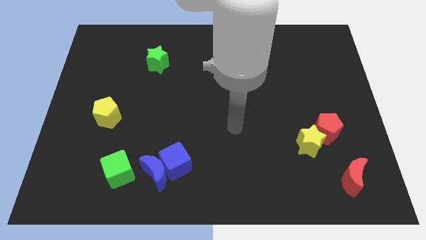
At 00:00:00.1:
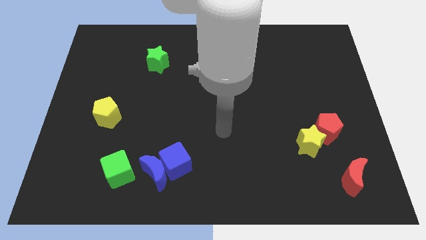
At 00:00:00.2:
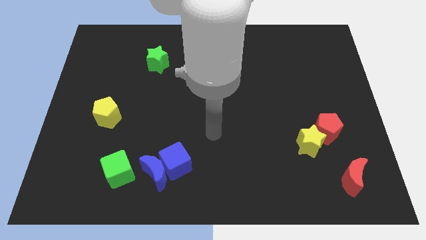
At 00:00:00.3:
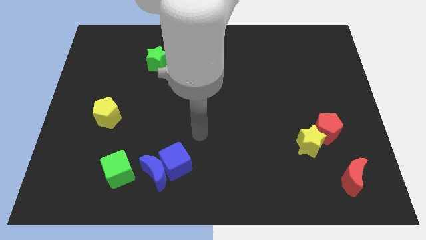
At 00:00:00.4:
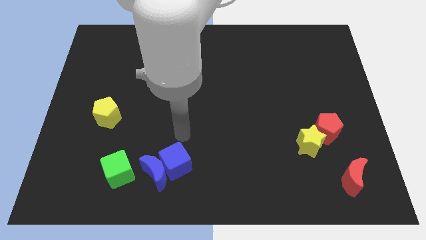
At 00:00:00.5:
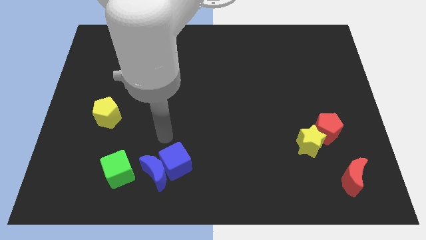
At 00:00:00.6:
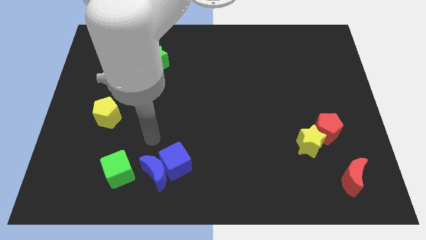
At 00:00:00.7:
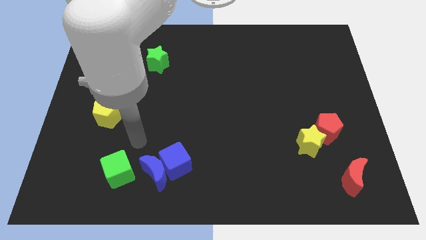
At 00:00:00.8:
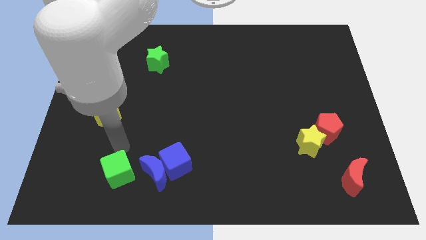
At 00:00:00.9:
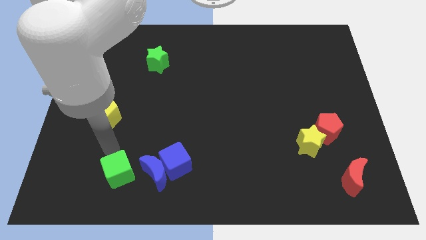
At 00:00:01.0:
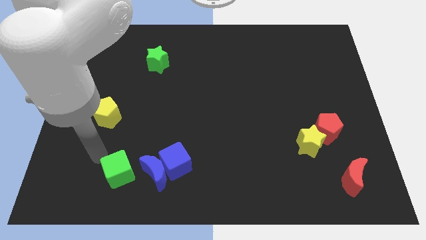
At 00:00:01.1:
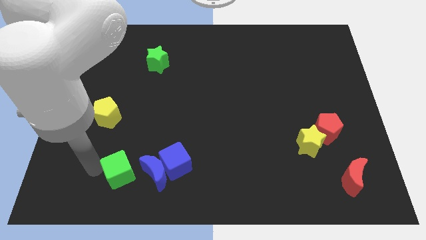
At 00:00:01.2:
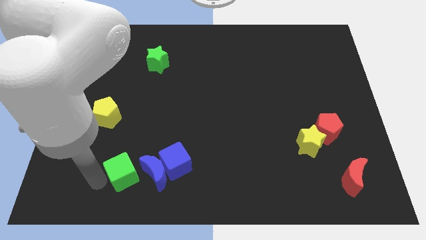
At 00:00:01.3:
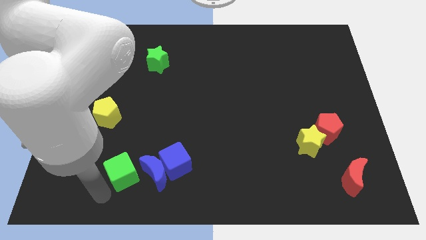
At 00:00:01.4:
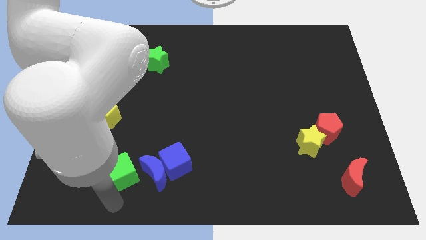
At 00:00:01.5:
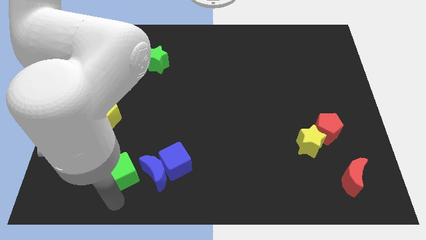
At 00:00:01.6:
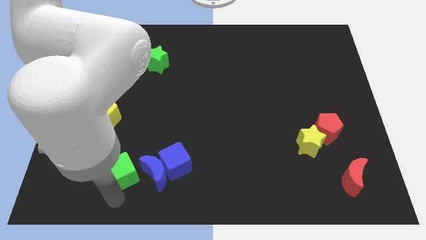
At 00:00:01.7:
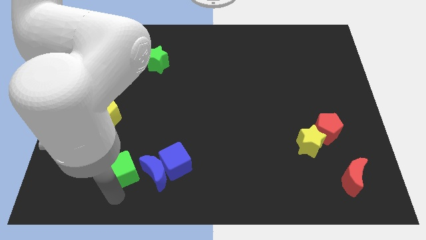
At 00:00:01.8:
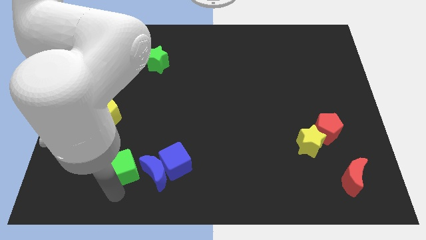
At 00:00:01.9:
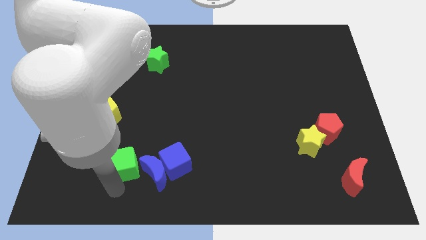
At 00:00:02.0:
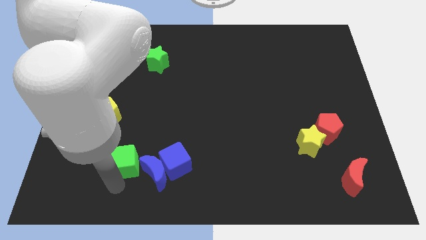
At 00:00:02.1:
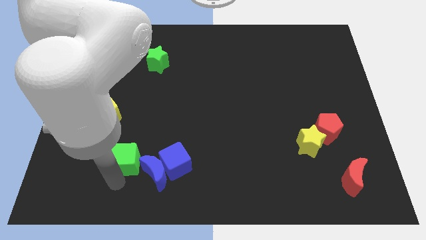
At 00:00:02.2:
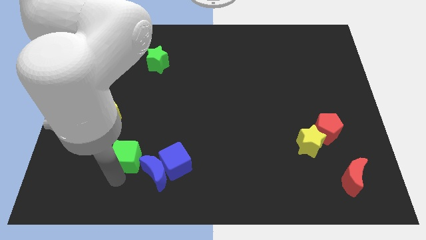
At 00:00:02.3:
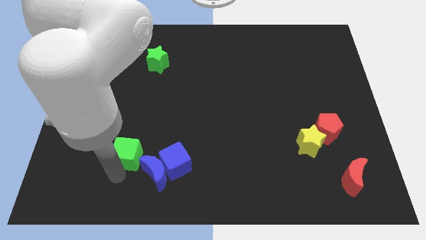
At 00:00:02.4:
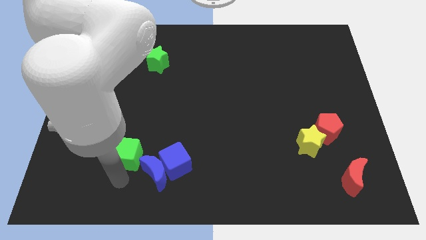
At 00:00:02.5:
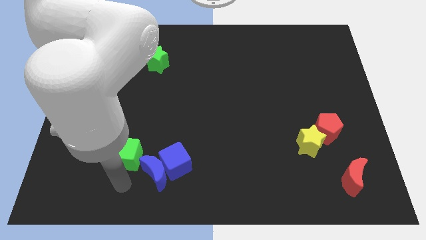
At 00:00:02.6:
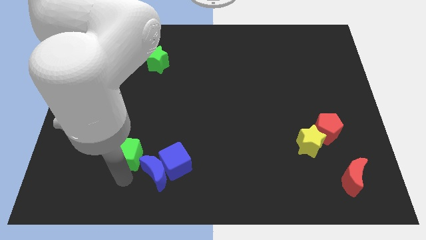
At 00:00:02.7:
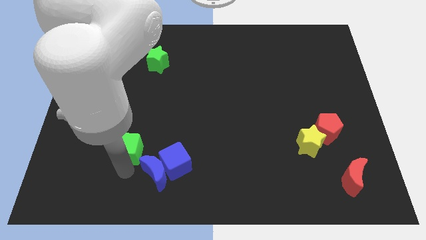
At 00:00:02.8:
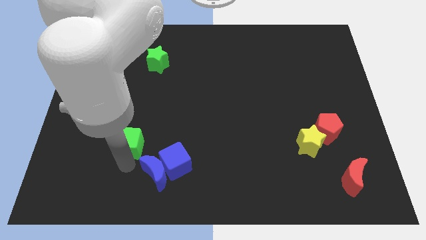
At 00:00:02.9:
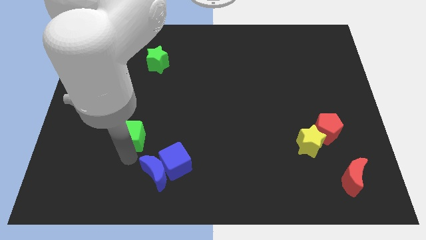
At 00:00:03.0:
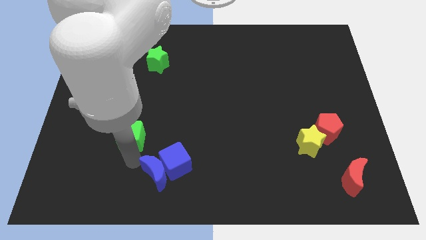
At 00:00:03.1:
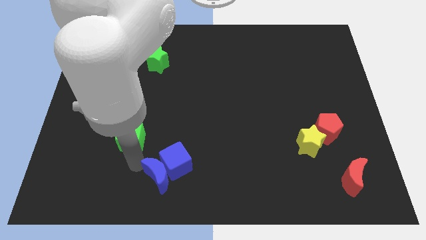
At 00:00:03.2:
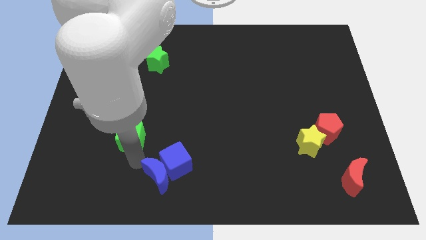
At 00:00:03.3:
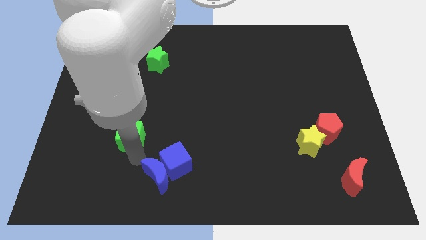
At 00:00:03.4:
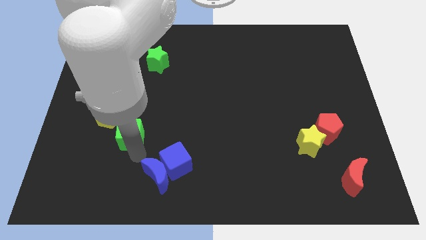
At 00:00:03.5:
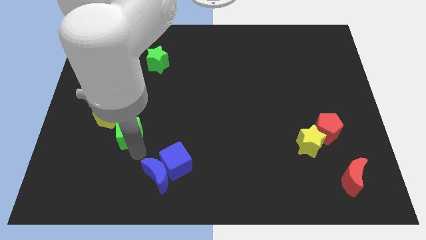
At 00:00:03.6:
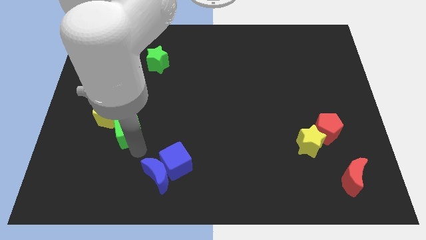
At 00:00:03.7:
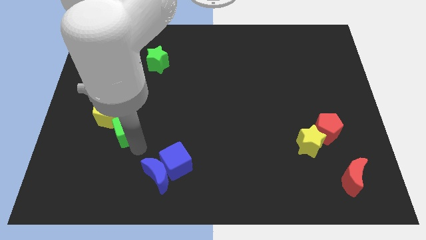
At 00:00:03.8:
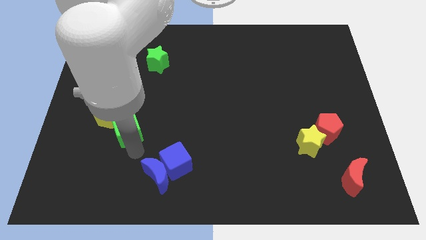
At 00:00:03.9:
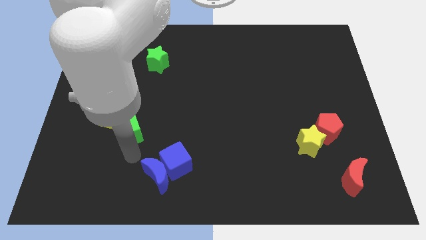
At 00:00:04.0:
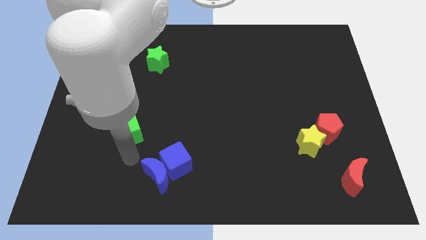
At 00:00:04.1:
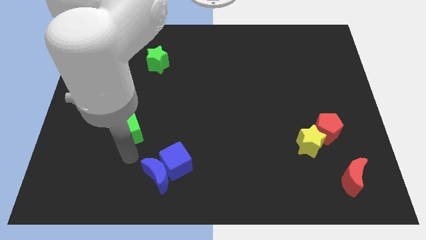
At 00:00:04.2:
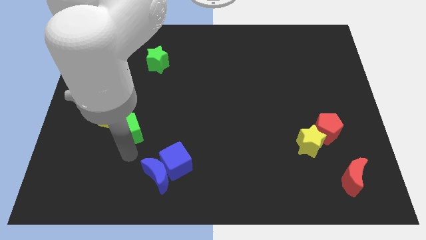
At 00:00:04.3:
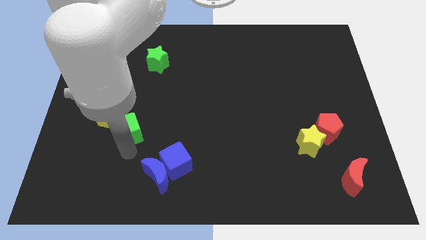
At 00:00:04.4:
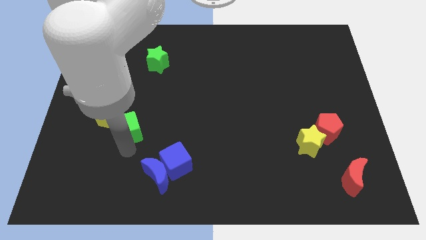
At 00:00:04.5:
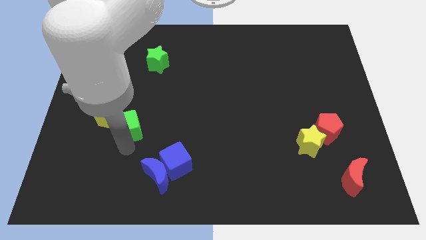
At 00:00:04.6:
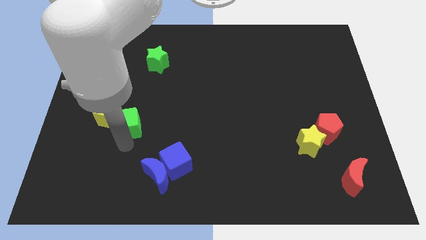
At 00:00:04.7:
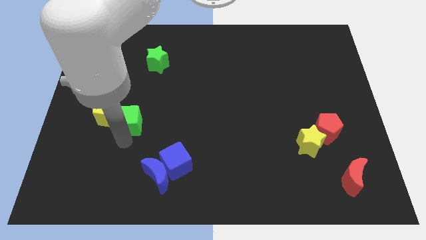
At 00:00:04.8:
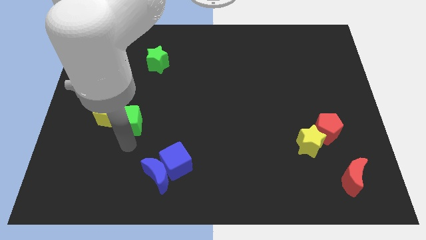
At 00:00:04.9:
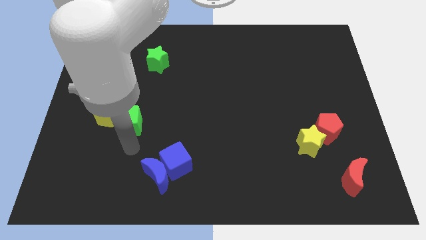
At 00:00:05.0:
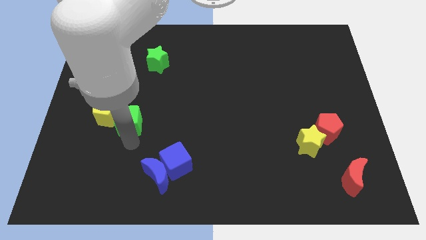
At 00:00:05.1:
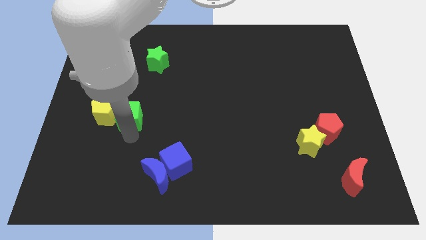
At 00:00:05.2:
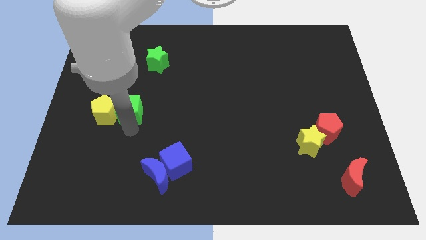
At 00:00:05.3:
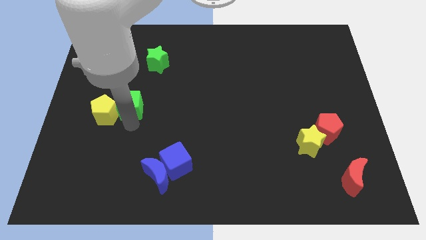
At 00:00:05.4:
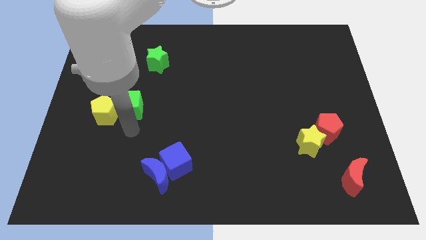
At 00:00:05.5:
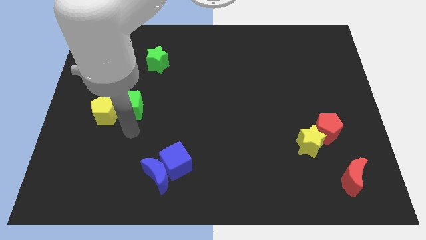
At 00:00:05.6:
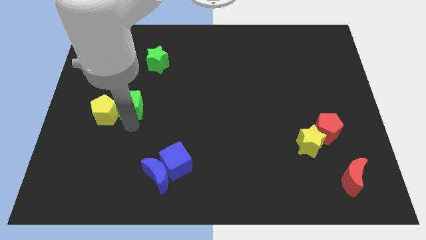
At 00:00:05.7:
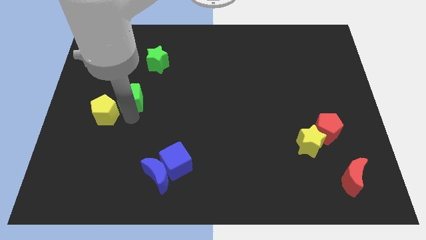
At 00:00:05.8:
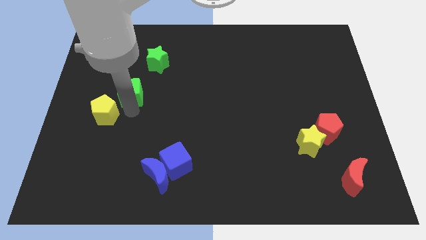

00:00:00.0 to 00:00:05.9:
push the green cube upwards

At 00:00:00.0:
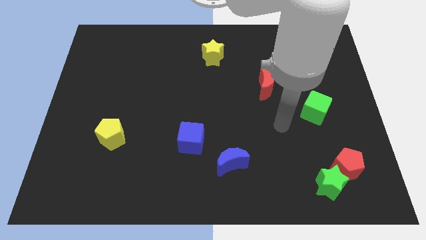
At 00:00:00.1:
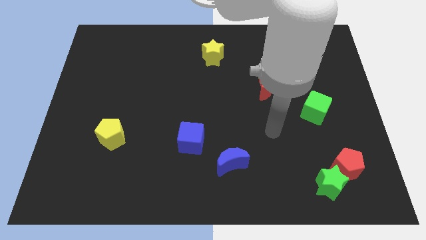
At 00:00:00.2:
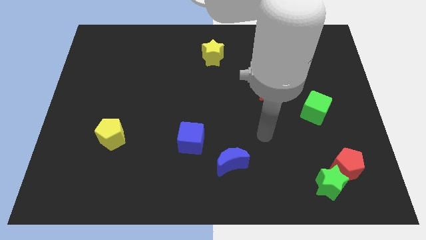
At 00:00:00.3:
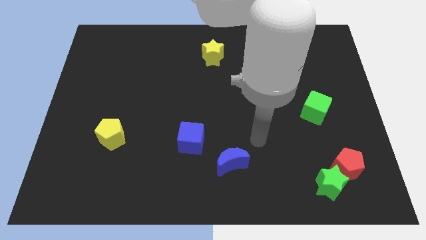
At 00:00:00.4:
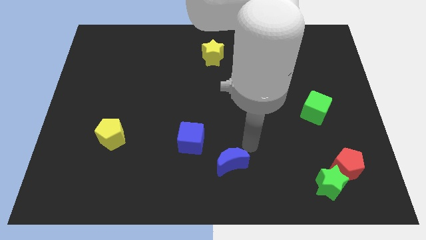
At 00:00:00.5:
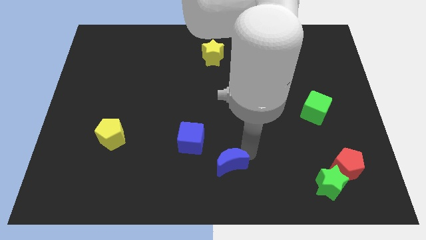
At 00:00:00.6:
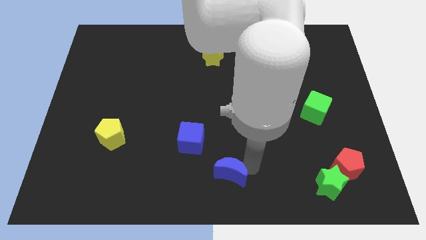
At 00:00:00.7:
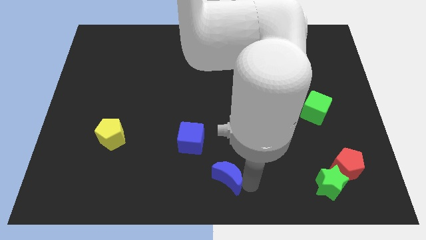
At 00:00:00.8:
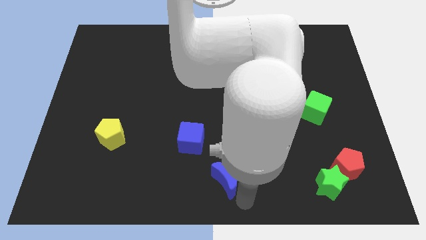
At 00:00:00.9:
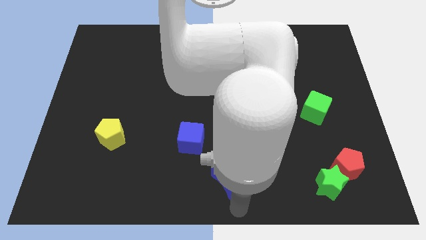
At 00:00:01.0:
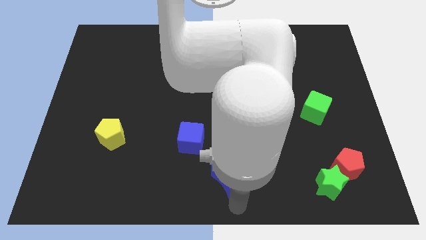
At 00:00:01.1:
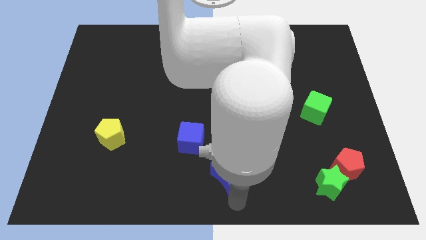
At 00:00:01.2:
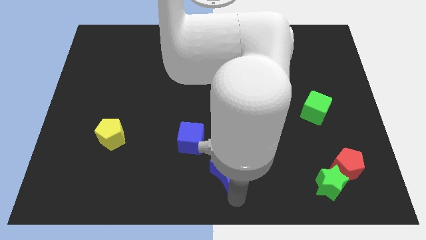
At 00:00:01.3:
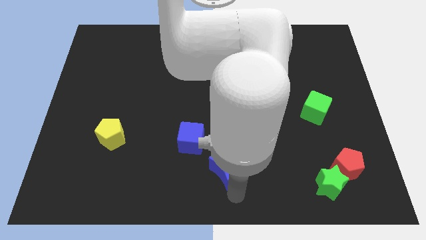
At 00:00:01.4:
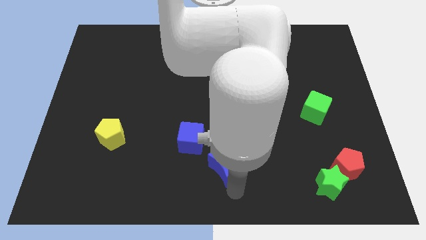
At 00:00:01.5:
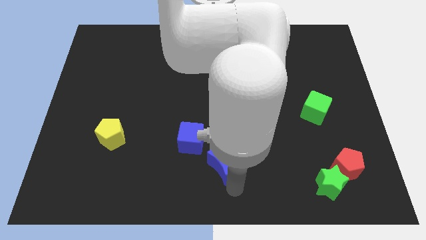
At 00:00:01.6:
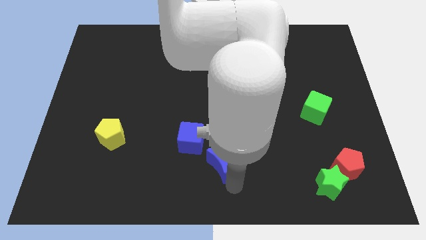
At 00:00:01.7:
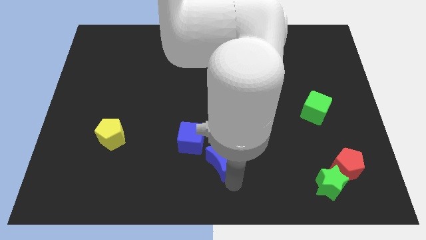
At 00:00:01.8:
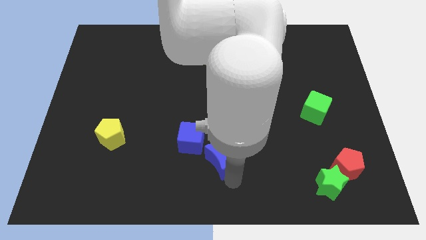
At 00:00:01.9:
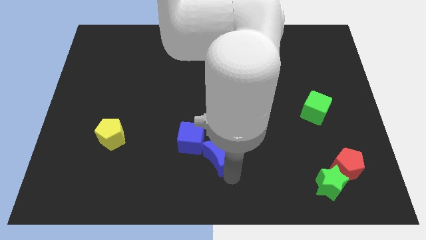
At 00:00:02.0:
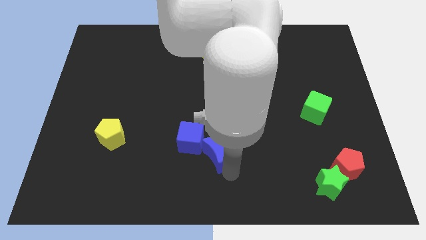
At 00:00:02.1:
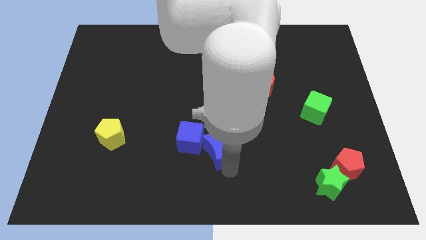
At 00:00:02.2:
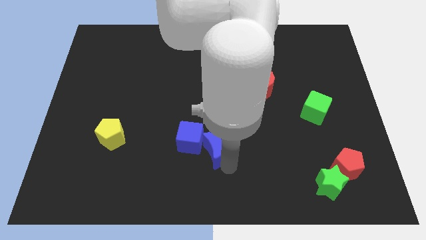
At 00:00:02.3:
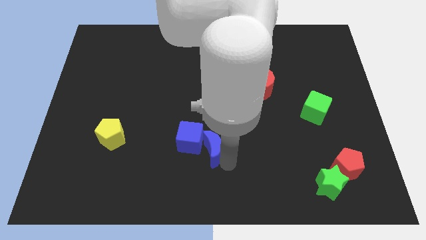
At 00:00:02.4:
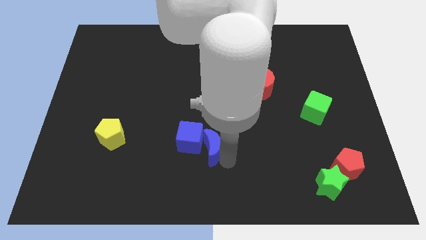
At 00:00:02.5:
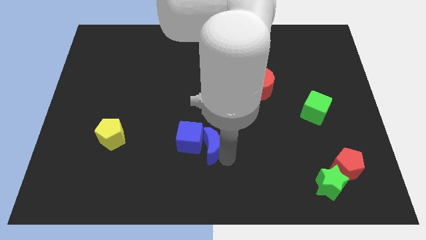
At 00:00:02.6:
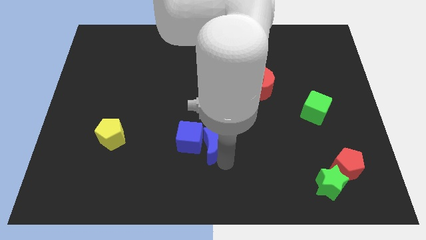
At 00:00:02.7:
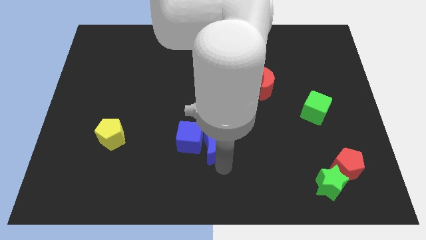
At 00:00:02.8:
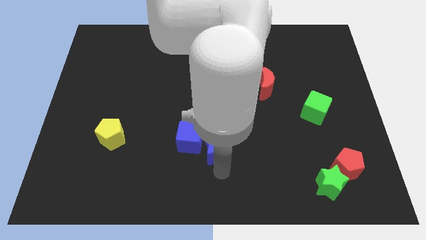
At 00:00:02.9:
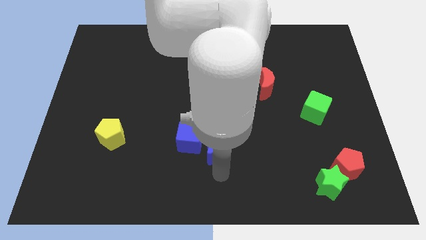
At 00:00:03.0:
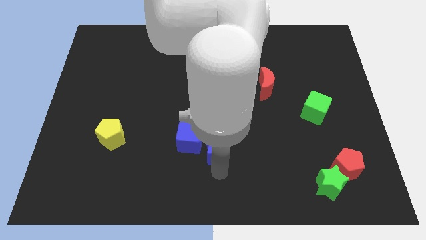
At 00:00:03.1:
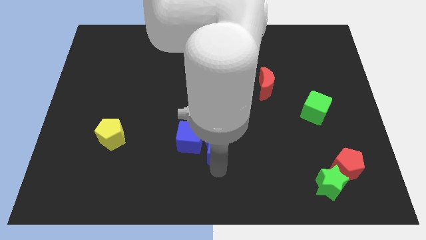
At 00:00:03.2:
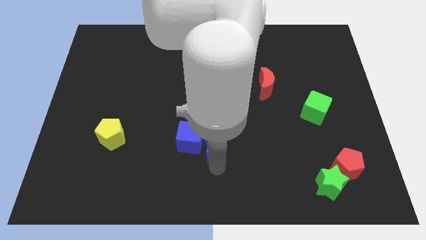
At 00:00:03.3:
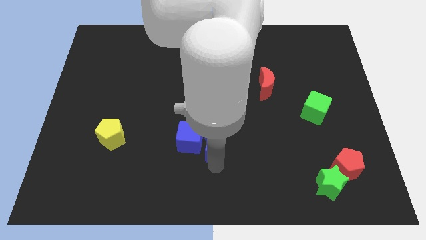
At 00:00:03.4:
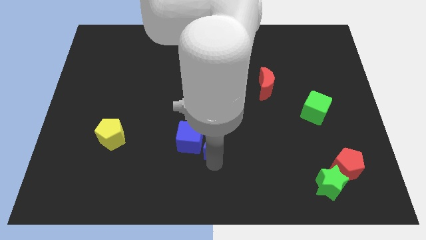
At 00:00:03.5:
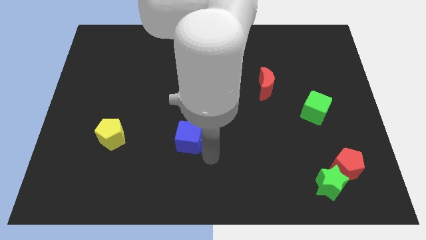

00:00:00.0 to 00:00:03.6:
slide the blue moon slightly up and then left
